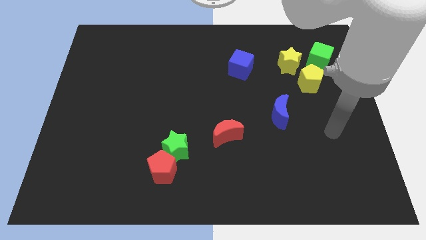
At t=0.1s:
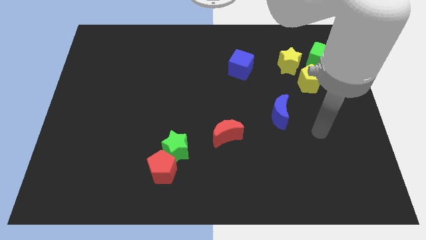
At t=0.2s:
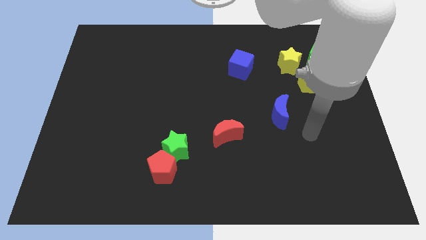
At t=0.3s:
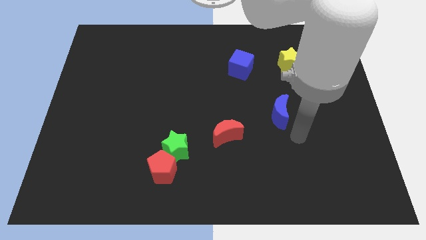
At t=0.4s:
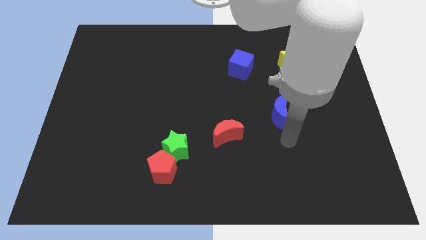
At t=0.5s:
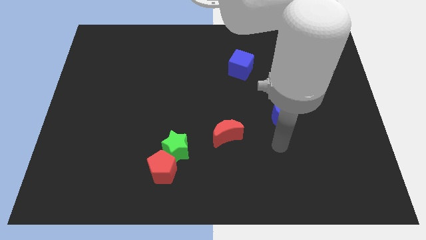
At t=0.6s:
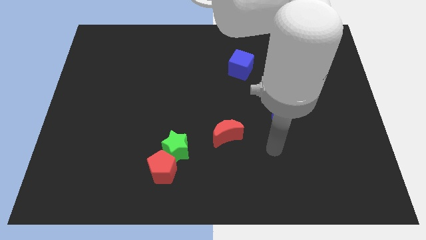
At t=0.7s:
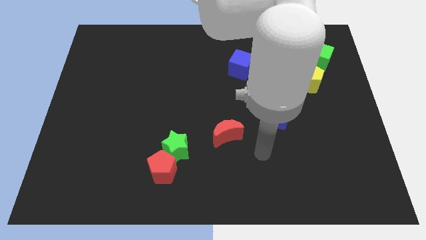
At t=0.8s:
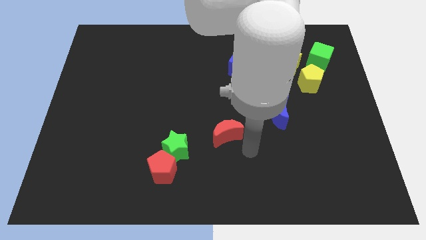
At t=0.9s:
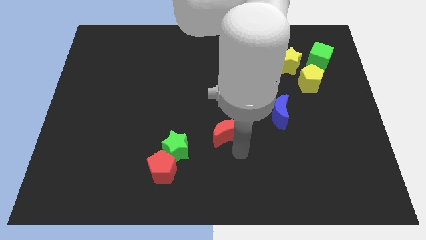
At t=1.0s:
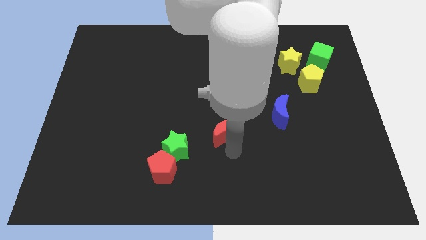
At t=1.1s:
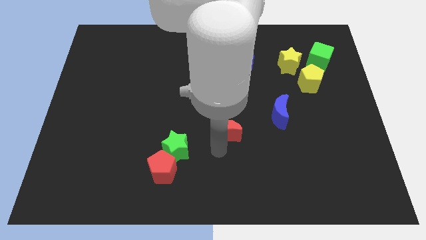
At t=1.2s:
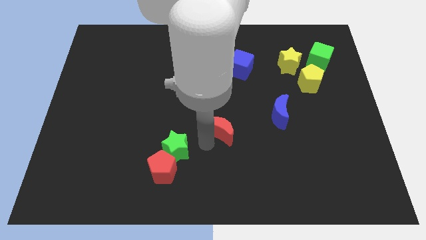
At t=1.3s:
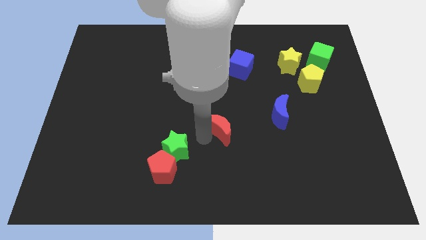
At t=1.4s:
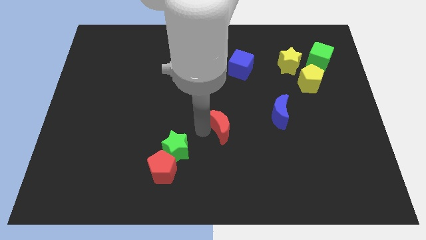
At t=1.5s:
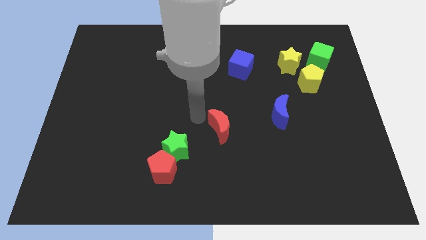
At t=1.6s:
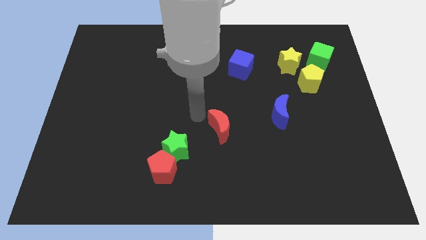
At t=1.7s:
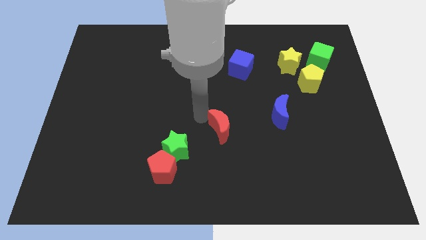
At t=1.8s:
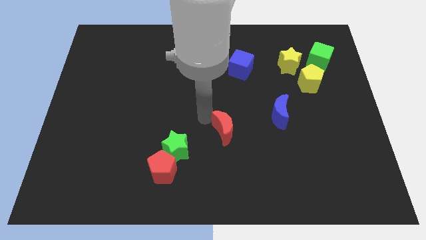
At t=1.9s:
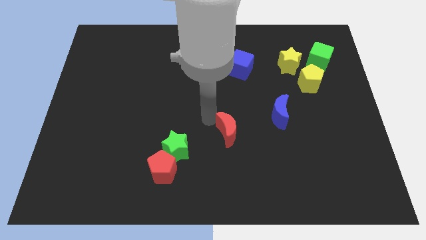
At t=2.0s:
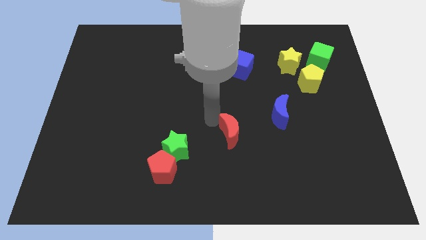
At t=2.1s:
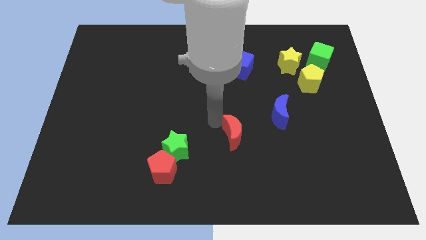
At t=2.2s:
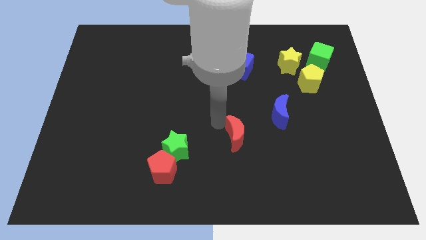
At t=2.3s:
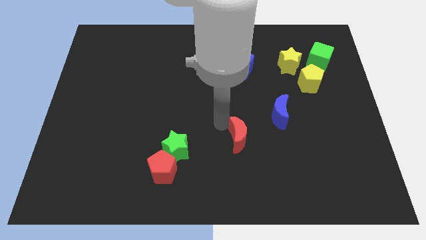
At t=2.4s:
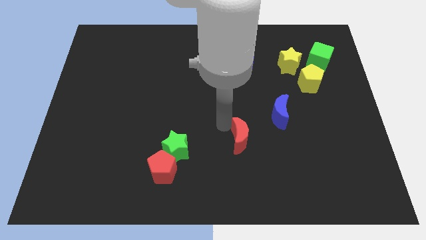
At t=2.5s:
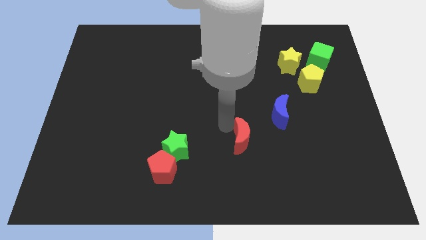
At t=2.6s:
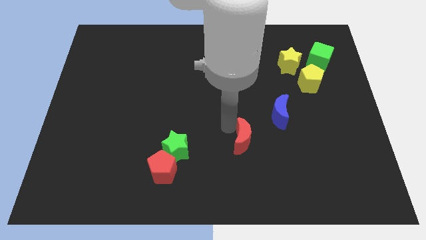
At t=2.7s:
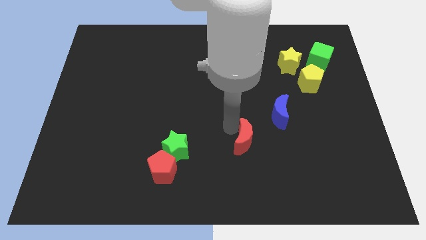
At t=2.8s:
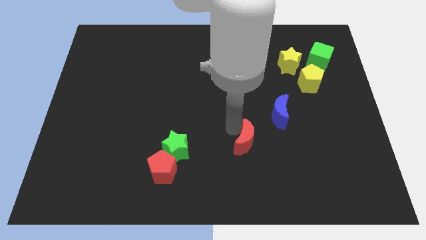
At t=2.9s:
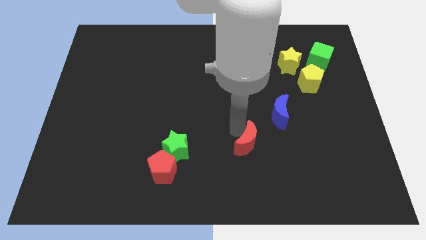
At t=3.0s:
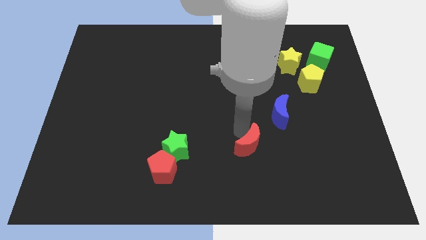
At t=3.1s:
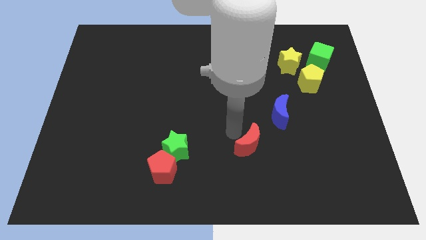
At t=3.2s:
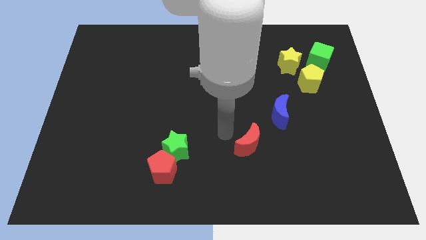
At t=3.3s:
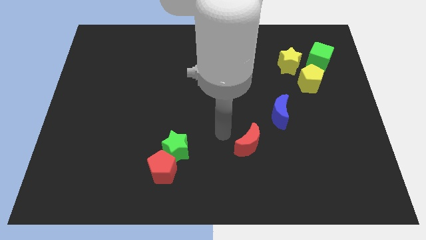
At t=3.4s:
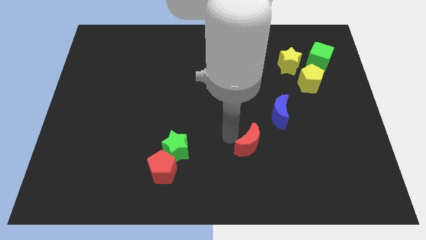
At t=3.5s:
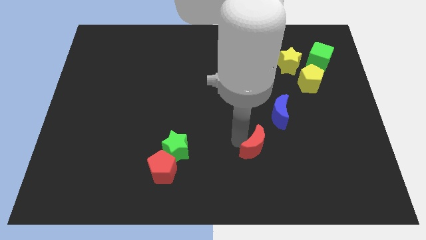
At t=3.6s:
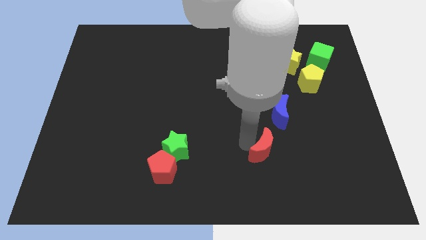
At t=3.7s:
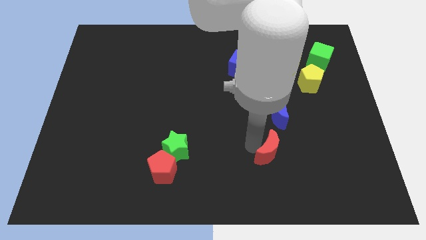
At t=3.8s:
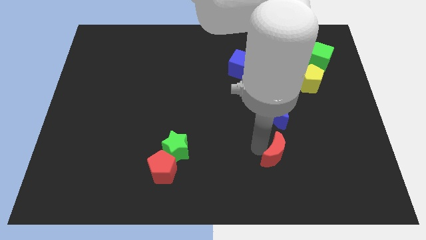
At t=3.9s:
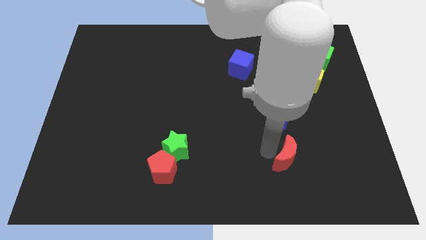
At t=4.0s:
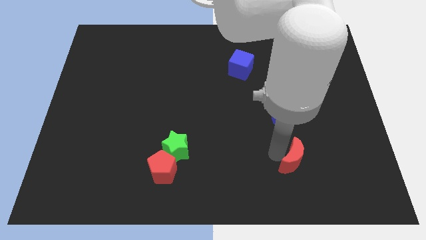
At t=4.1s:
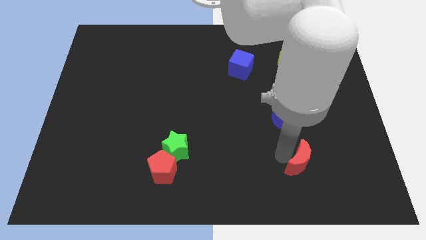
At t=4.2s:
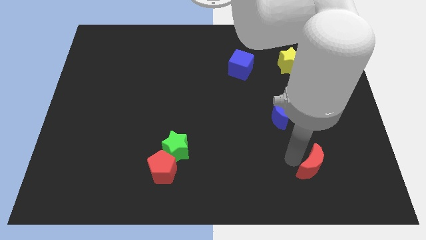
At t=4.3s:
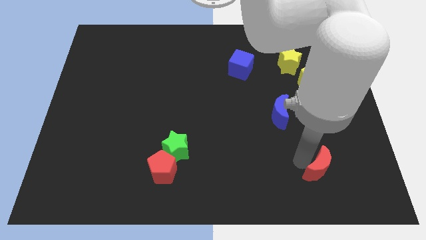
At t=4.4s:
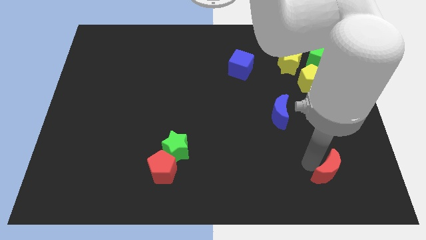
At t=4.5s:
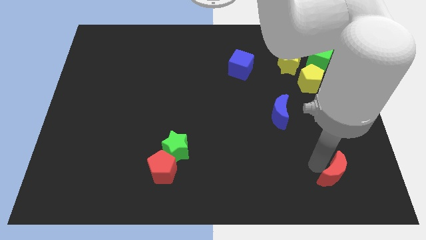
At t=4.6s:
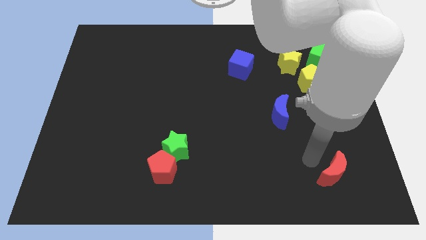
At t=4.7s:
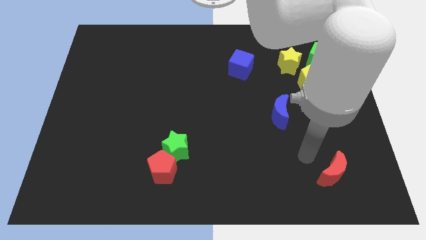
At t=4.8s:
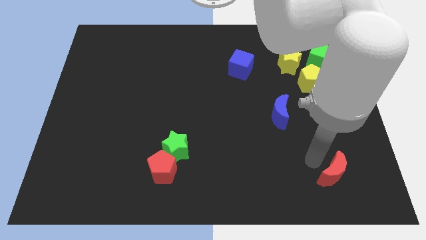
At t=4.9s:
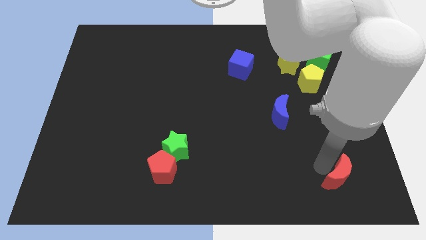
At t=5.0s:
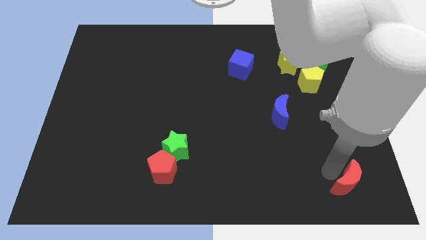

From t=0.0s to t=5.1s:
push the red moon to the bottom right of the board

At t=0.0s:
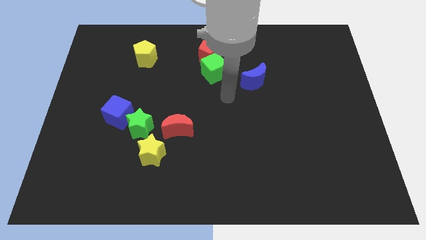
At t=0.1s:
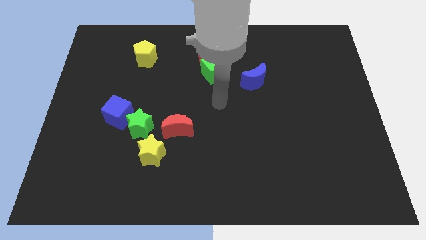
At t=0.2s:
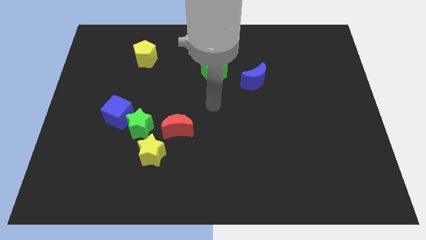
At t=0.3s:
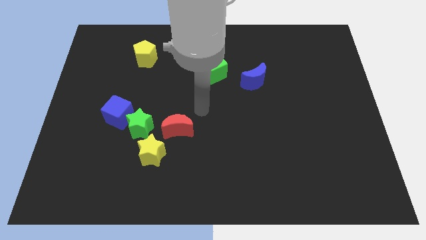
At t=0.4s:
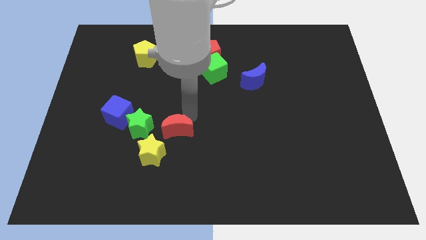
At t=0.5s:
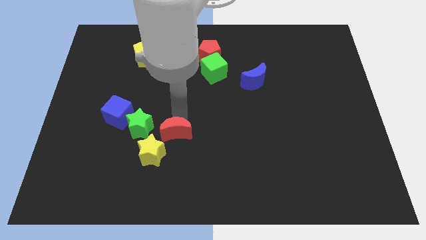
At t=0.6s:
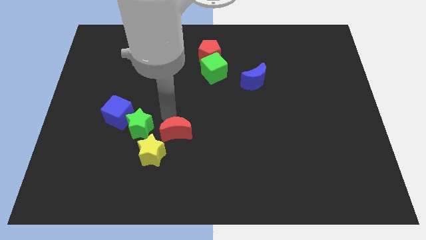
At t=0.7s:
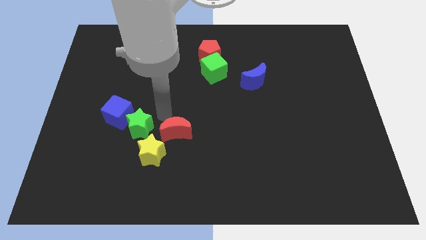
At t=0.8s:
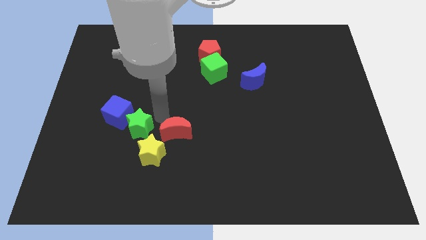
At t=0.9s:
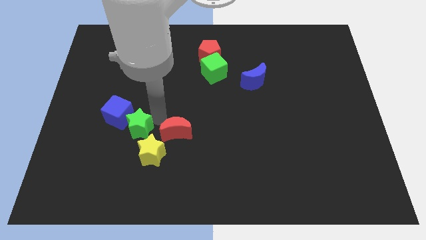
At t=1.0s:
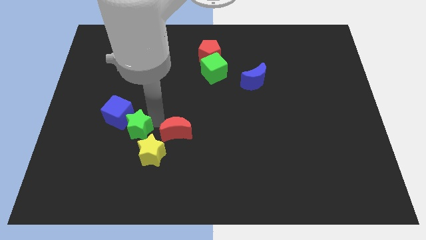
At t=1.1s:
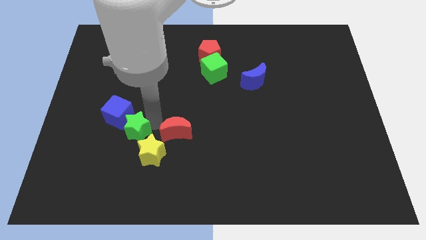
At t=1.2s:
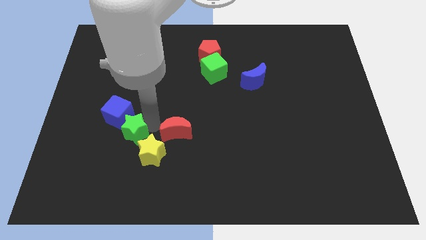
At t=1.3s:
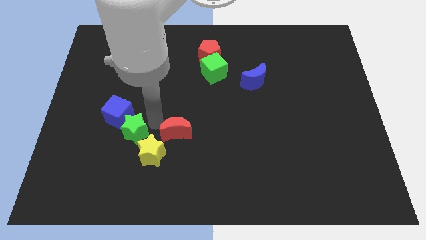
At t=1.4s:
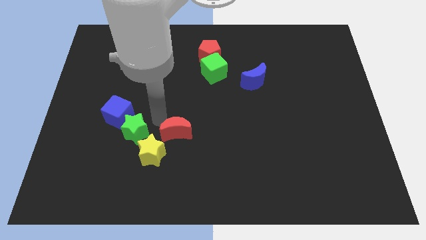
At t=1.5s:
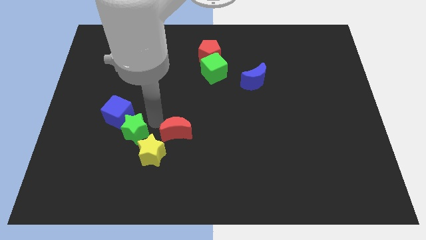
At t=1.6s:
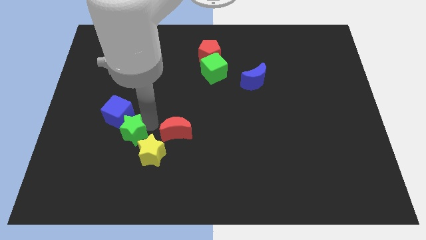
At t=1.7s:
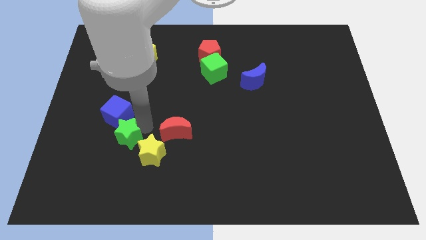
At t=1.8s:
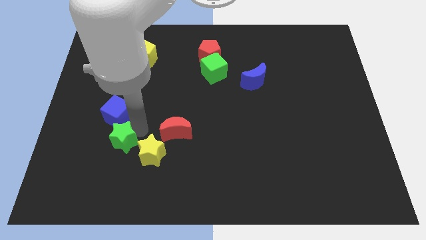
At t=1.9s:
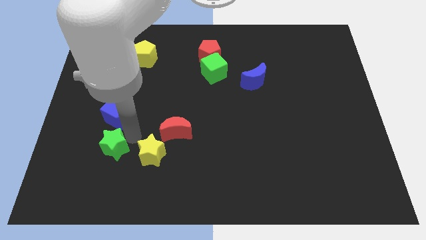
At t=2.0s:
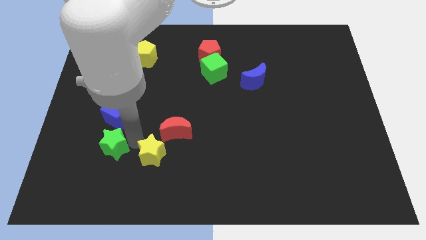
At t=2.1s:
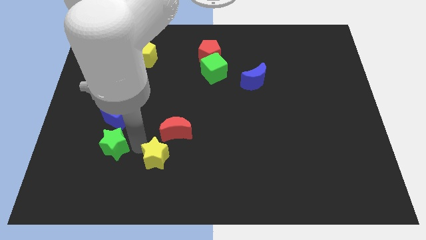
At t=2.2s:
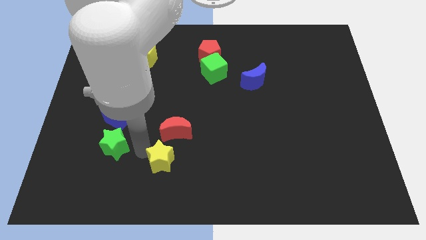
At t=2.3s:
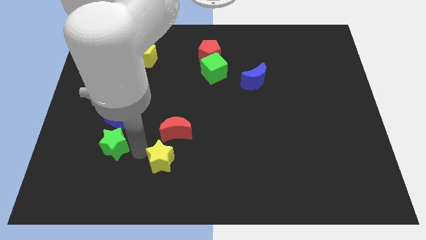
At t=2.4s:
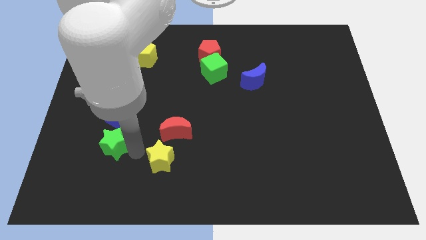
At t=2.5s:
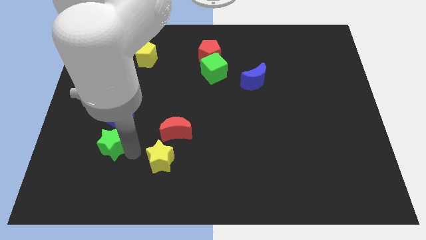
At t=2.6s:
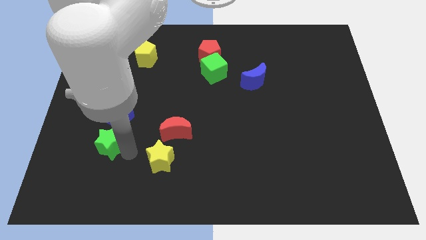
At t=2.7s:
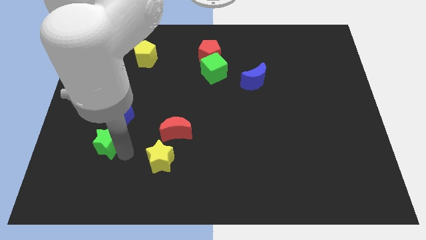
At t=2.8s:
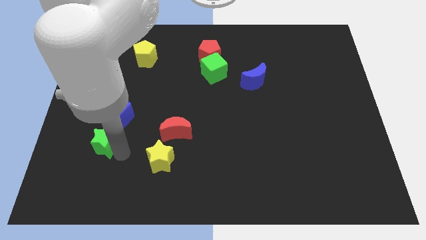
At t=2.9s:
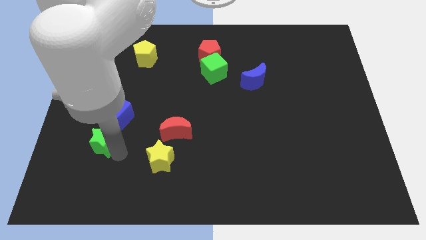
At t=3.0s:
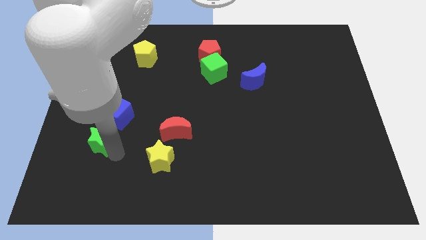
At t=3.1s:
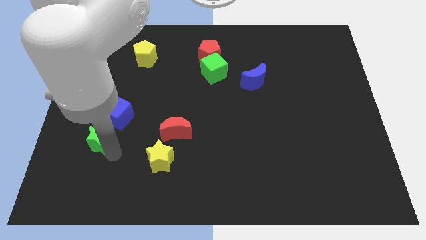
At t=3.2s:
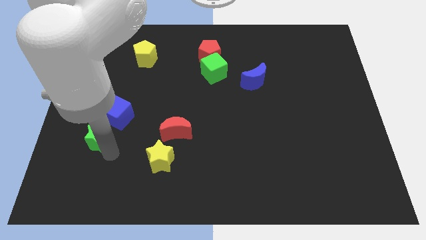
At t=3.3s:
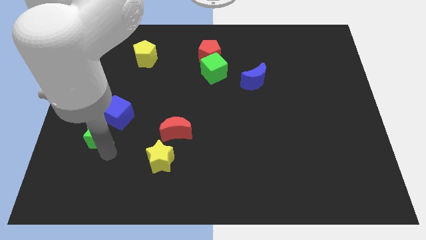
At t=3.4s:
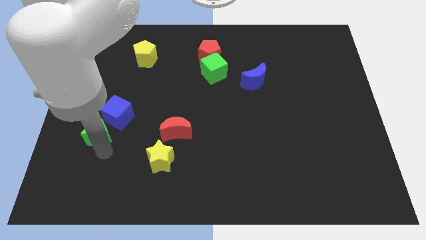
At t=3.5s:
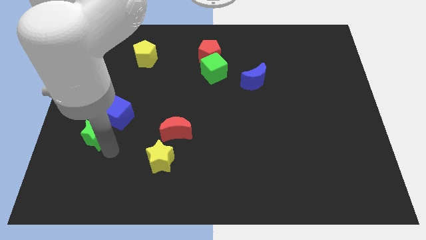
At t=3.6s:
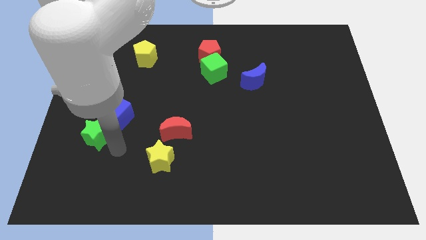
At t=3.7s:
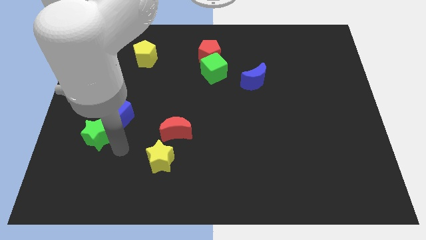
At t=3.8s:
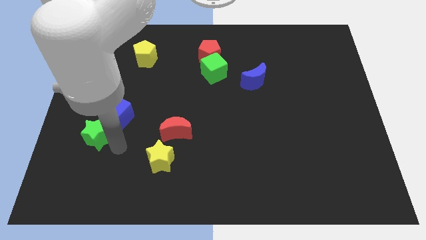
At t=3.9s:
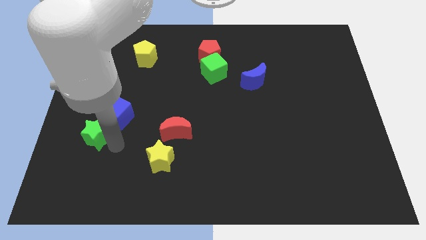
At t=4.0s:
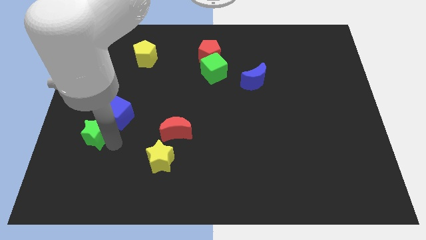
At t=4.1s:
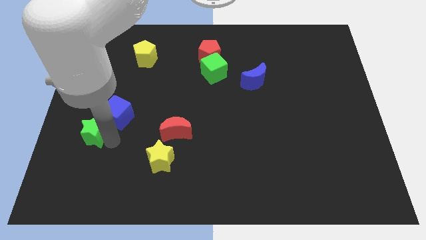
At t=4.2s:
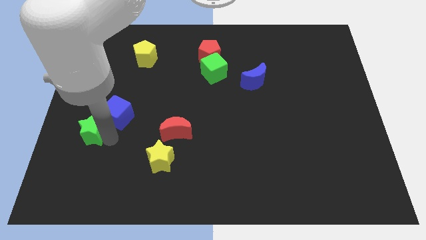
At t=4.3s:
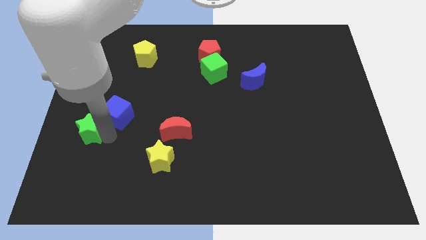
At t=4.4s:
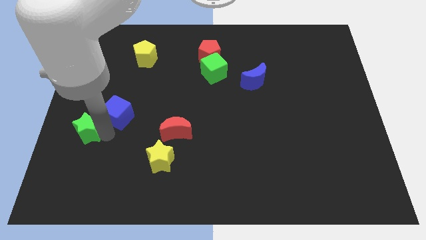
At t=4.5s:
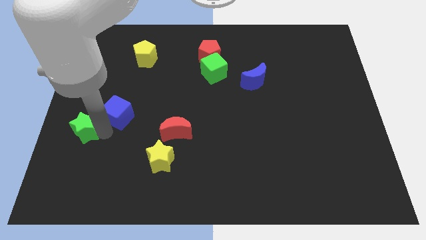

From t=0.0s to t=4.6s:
move the green star to the left side of the board
